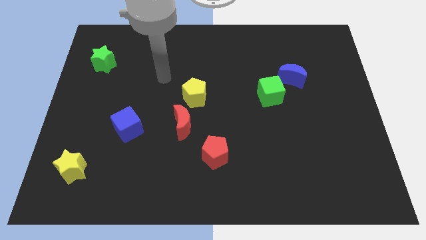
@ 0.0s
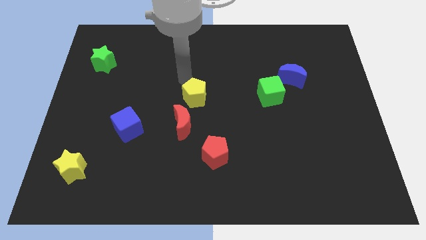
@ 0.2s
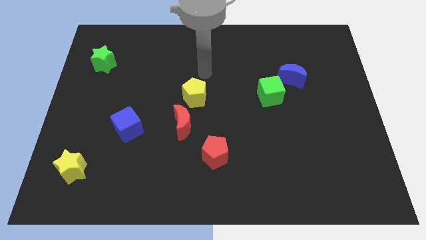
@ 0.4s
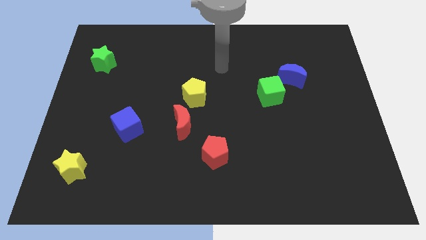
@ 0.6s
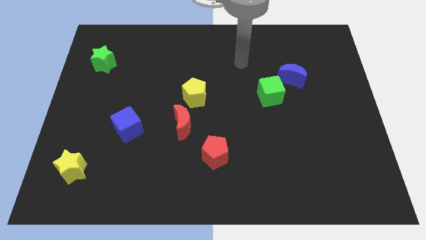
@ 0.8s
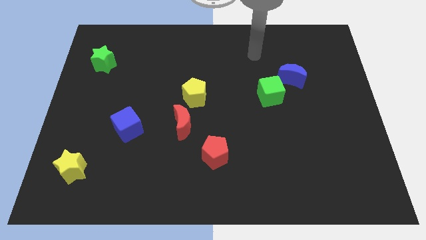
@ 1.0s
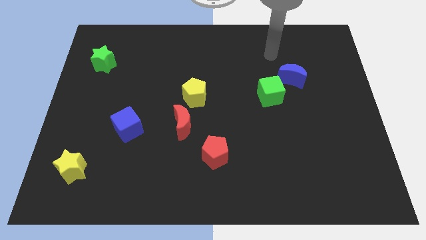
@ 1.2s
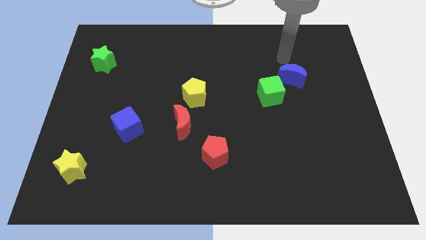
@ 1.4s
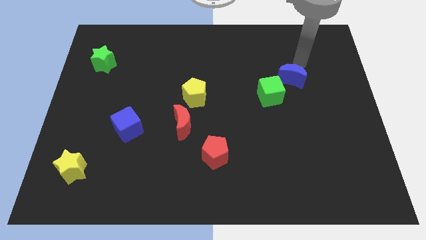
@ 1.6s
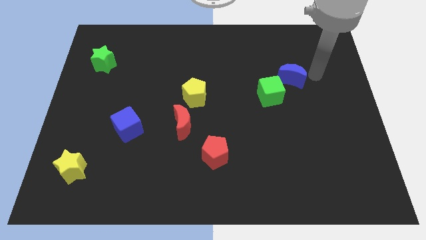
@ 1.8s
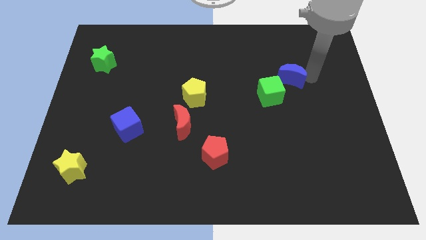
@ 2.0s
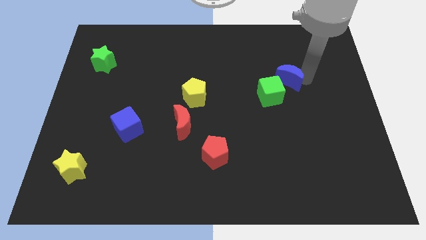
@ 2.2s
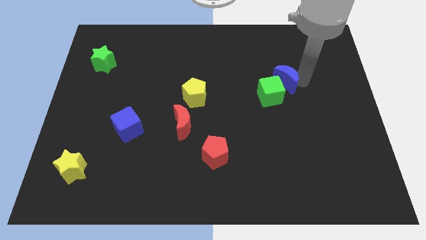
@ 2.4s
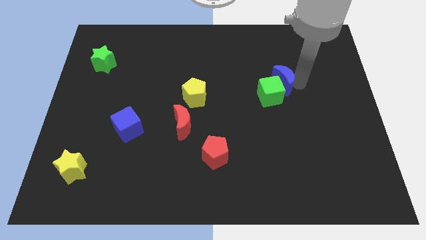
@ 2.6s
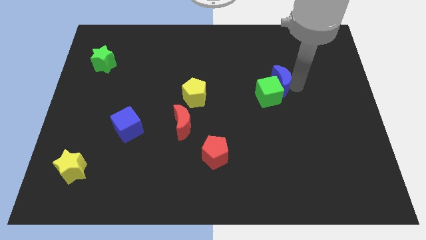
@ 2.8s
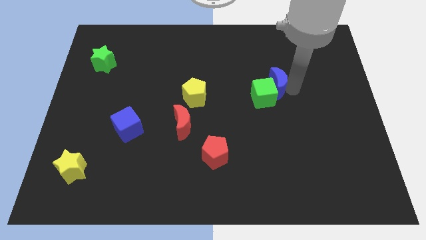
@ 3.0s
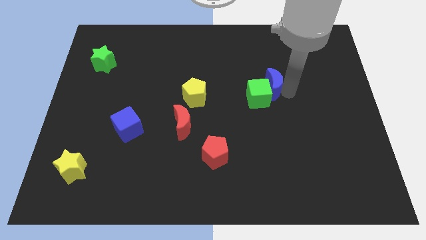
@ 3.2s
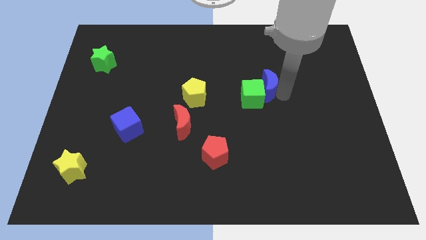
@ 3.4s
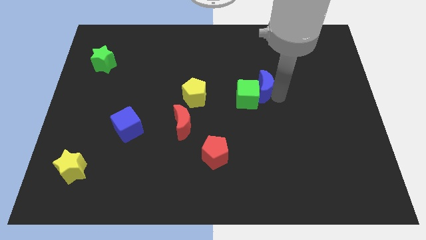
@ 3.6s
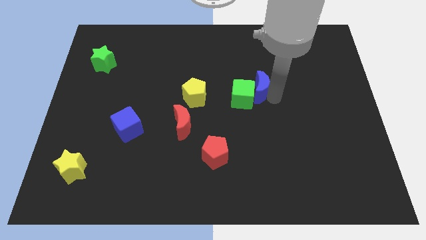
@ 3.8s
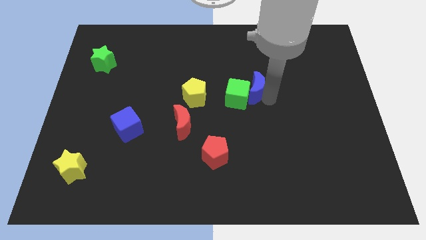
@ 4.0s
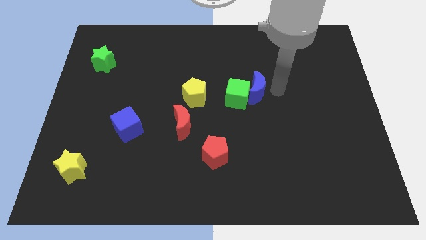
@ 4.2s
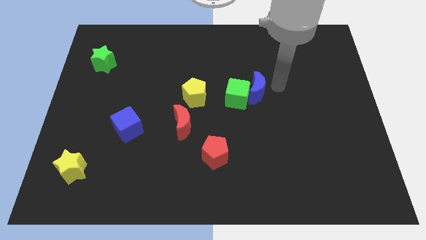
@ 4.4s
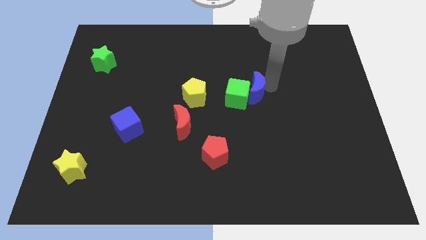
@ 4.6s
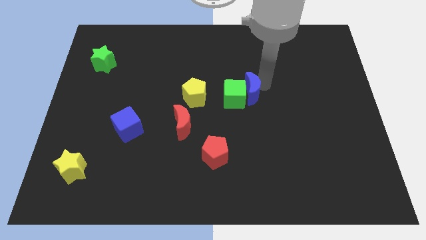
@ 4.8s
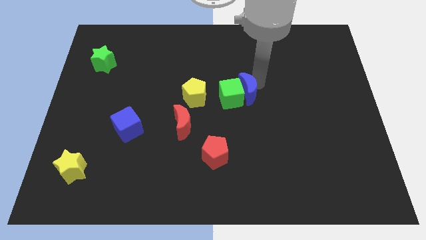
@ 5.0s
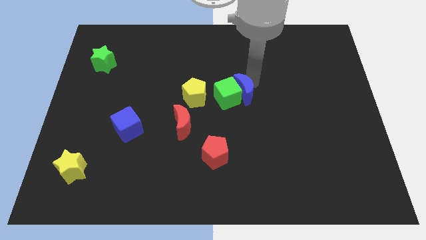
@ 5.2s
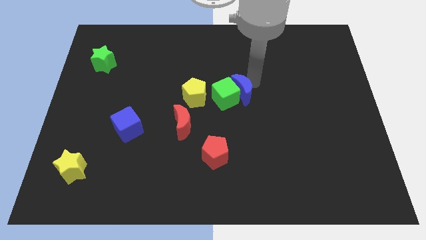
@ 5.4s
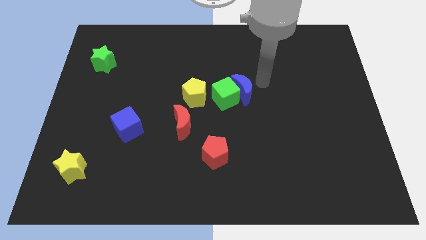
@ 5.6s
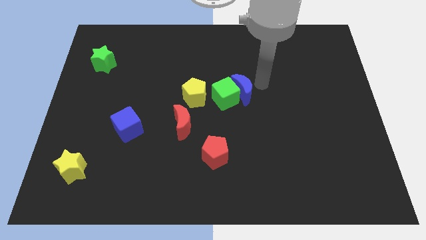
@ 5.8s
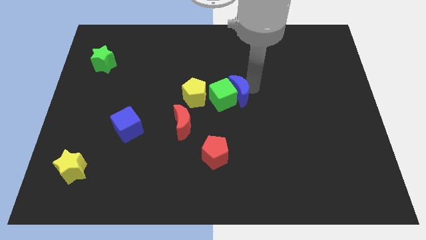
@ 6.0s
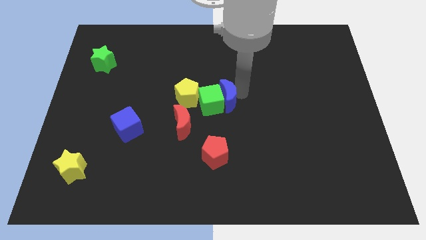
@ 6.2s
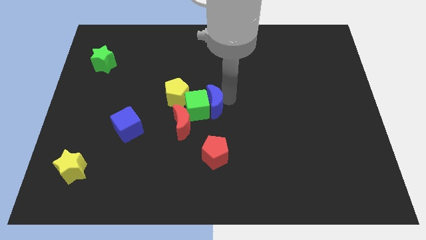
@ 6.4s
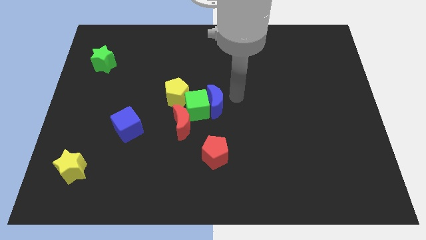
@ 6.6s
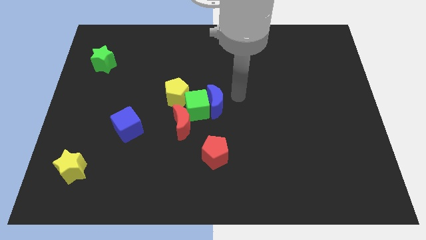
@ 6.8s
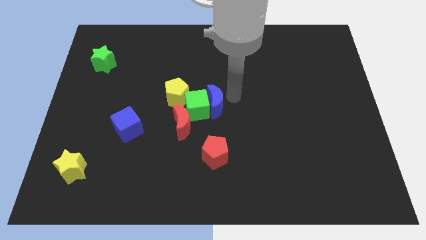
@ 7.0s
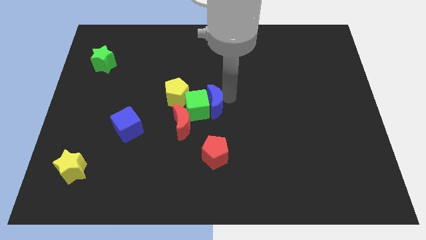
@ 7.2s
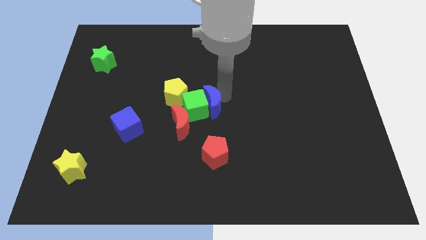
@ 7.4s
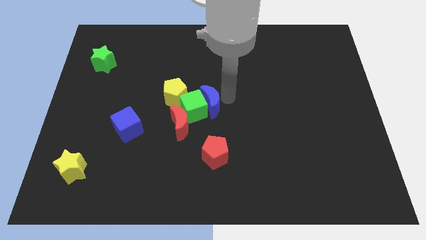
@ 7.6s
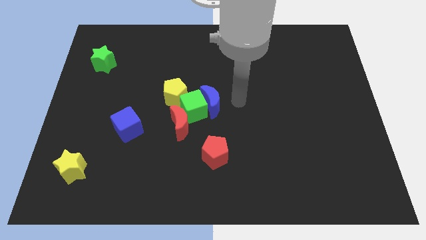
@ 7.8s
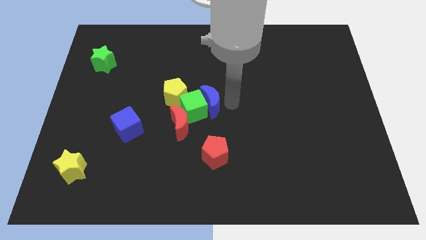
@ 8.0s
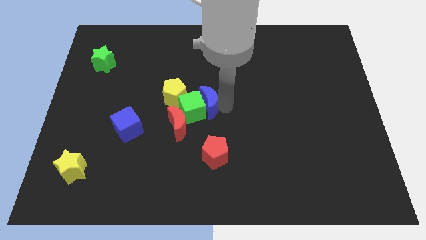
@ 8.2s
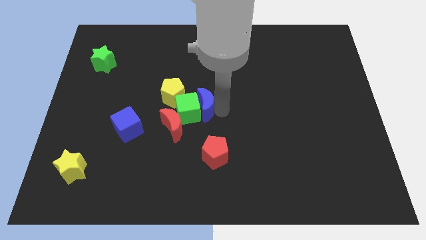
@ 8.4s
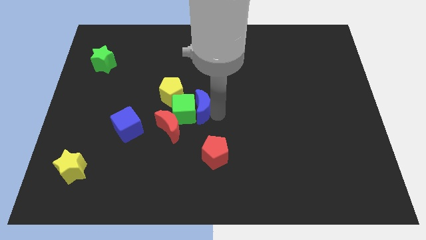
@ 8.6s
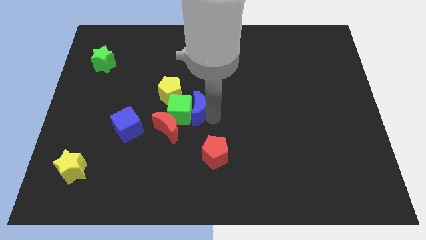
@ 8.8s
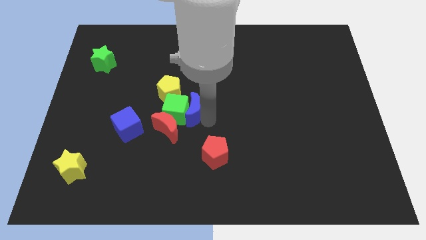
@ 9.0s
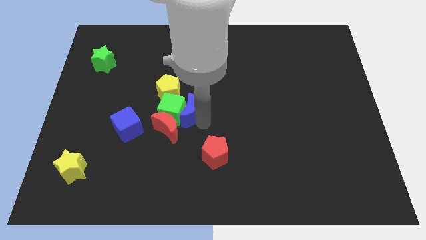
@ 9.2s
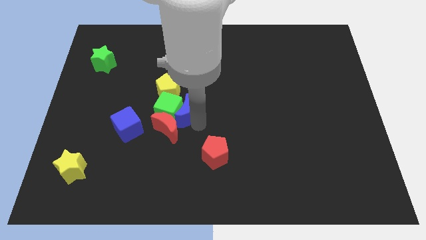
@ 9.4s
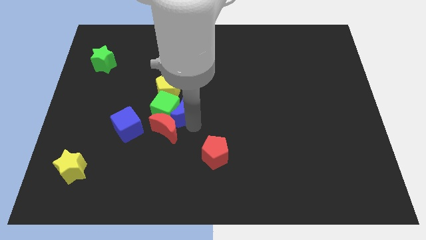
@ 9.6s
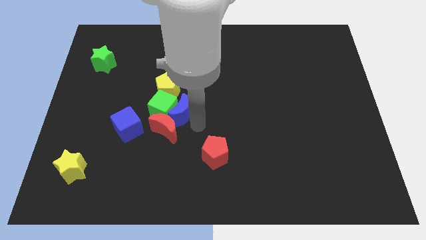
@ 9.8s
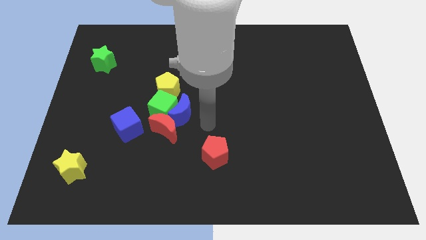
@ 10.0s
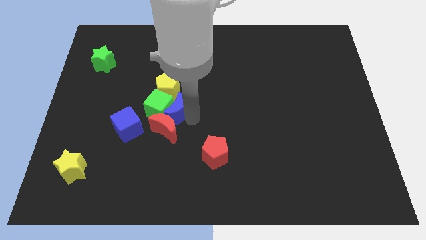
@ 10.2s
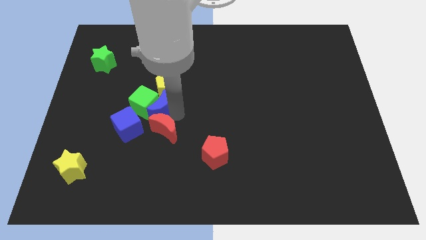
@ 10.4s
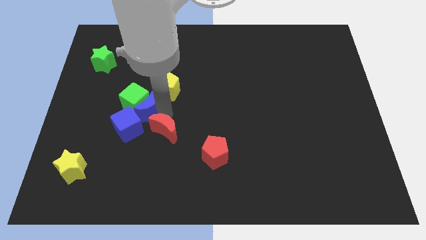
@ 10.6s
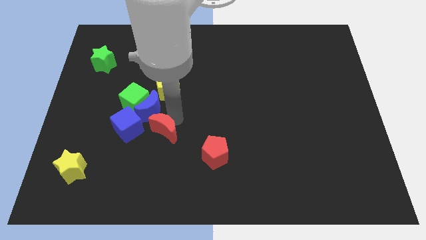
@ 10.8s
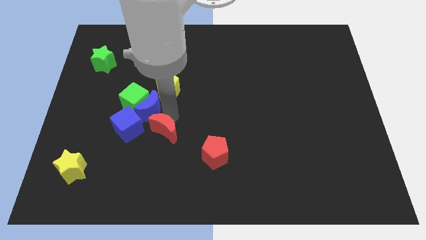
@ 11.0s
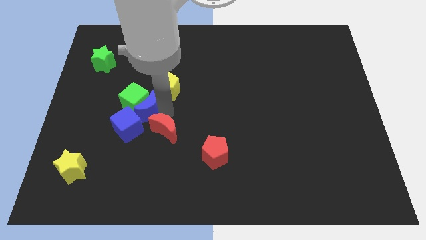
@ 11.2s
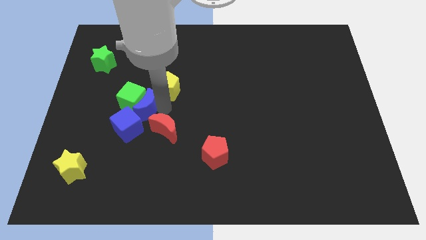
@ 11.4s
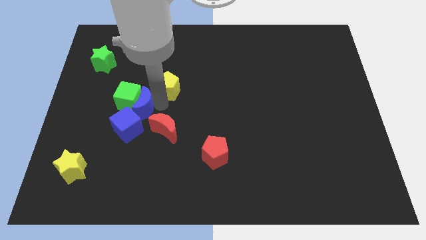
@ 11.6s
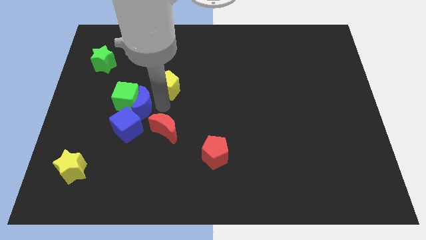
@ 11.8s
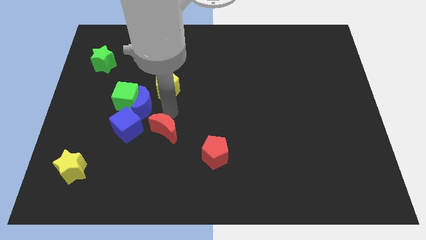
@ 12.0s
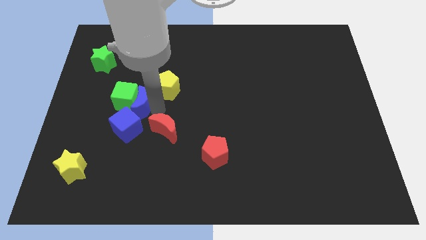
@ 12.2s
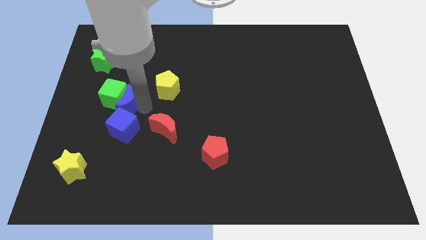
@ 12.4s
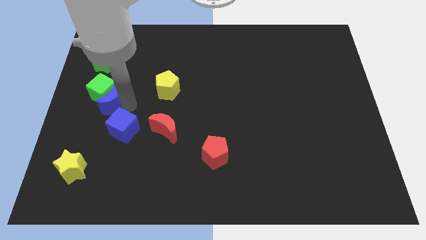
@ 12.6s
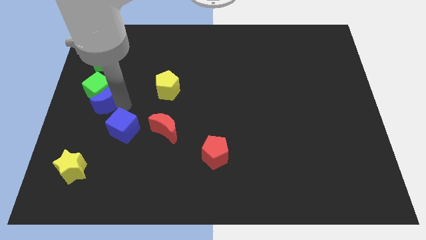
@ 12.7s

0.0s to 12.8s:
push the blue moon to the left side of the board
